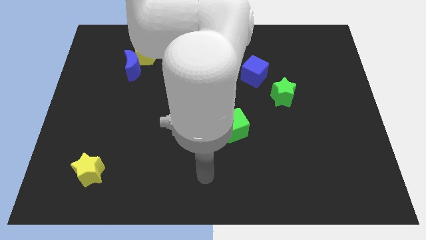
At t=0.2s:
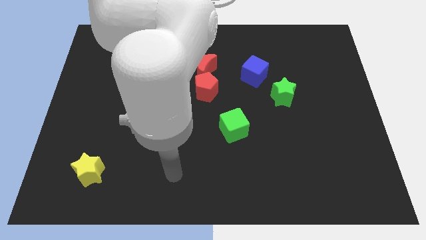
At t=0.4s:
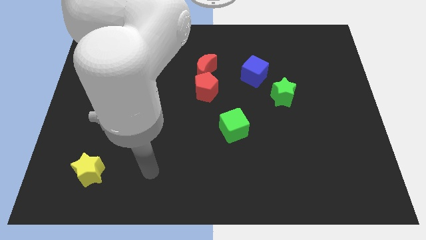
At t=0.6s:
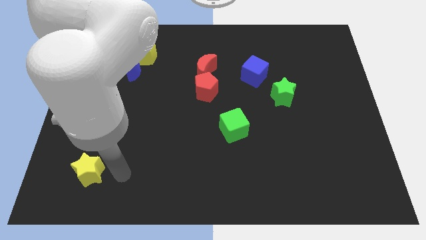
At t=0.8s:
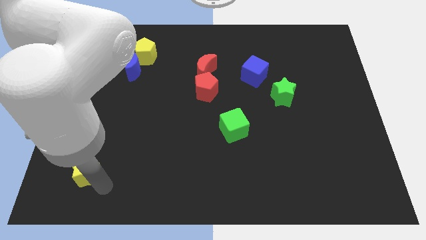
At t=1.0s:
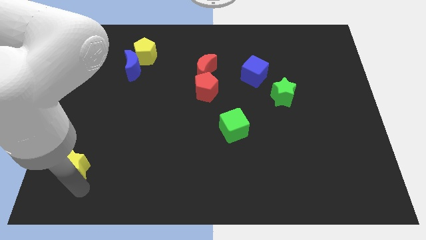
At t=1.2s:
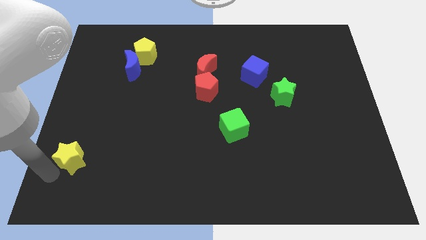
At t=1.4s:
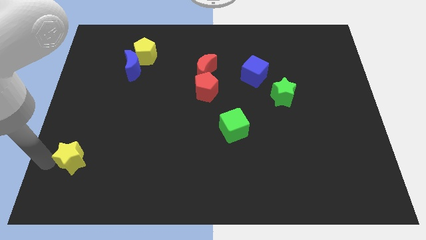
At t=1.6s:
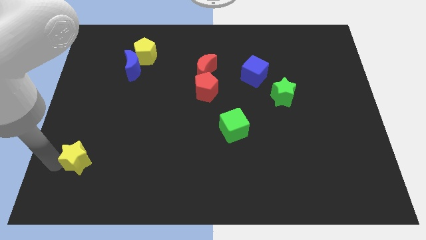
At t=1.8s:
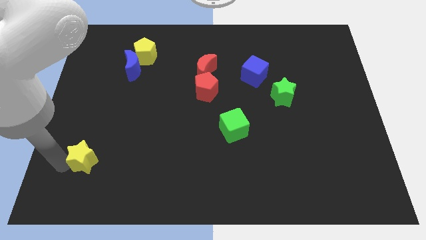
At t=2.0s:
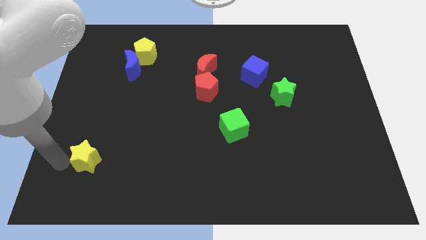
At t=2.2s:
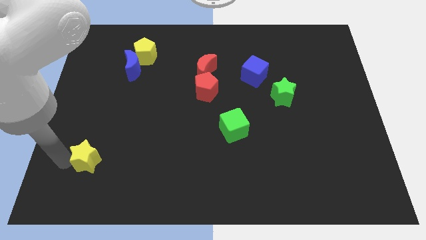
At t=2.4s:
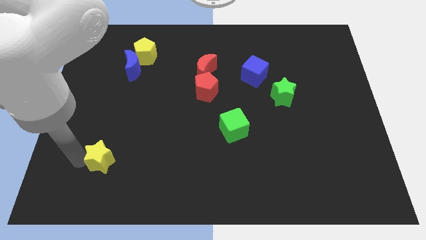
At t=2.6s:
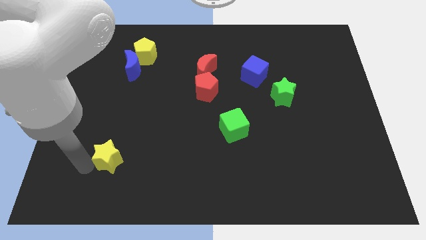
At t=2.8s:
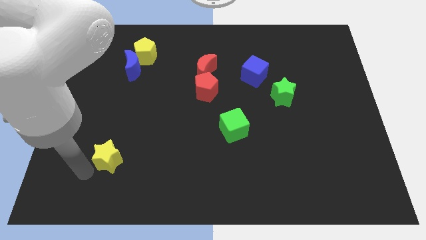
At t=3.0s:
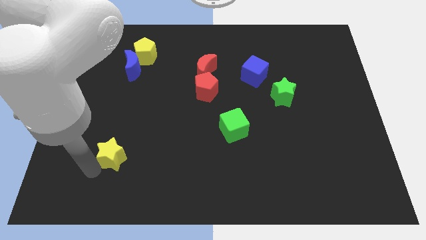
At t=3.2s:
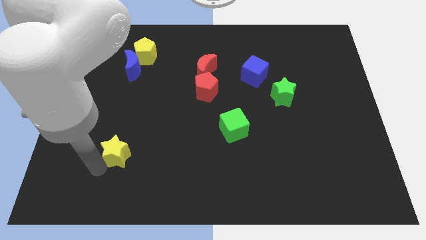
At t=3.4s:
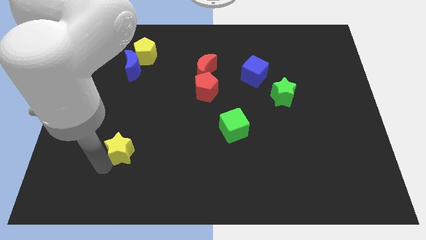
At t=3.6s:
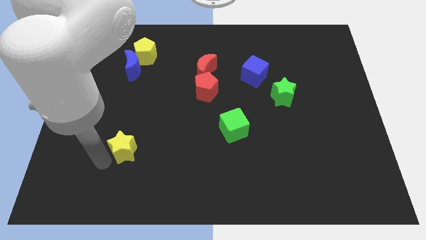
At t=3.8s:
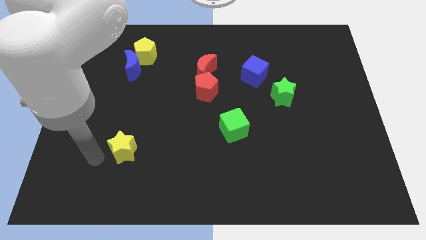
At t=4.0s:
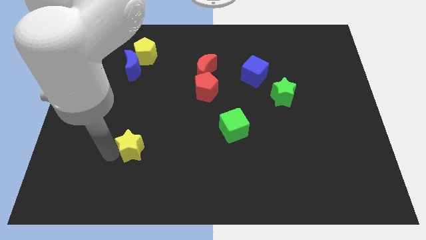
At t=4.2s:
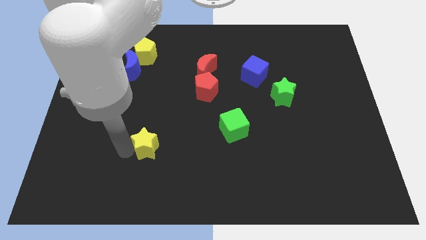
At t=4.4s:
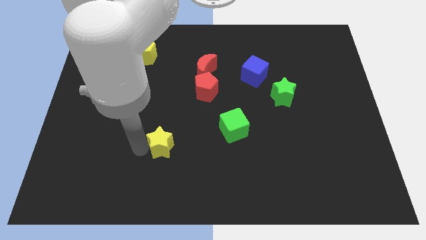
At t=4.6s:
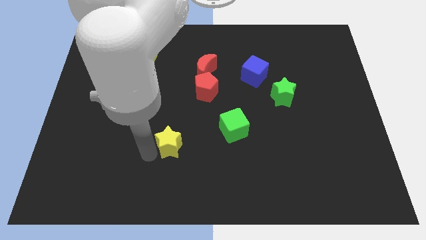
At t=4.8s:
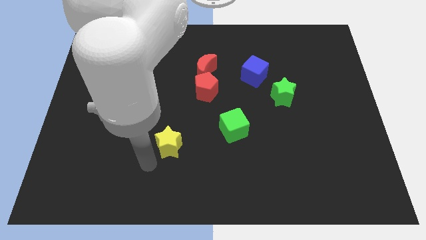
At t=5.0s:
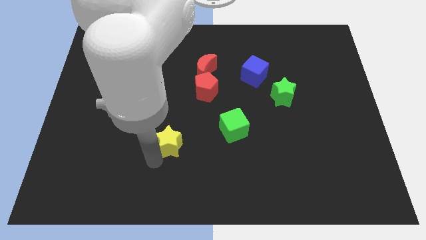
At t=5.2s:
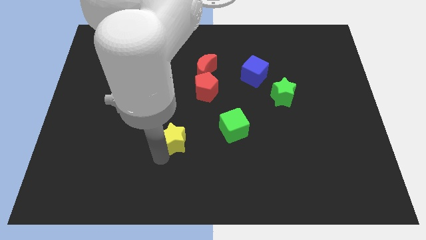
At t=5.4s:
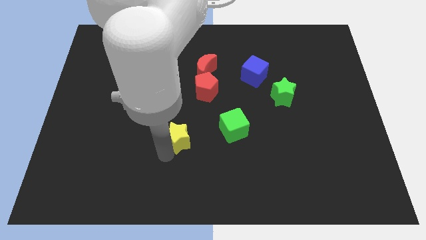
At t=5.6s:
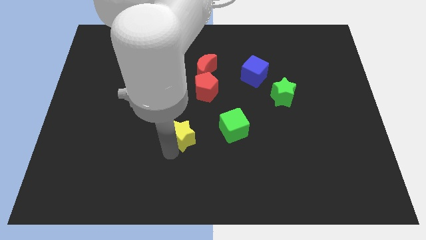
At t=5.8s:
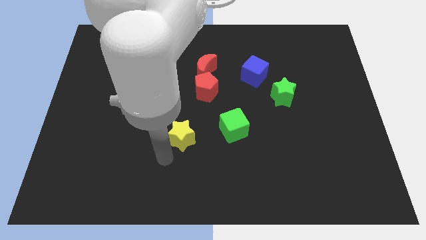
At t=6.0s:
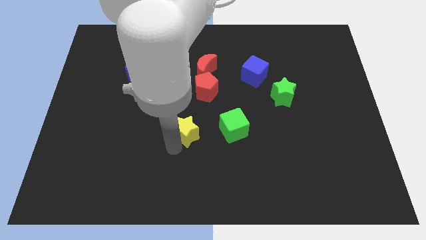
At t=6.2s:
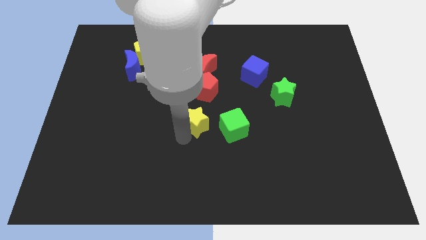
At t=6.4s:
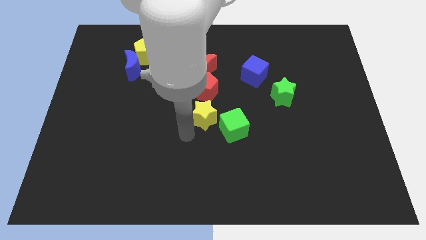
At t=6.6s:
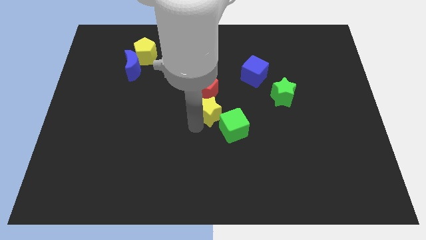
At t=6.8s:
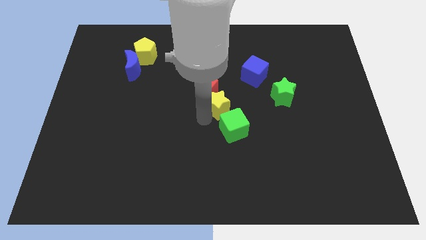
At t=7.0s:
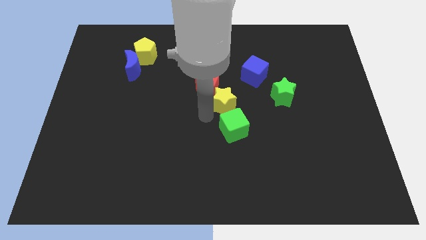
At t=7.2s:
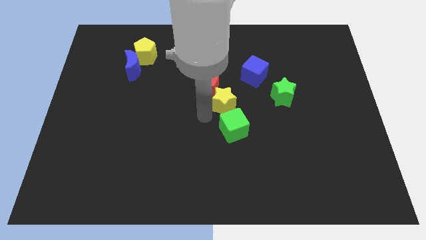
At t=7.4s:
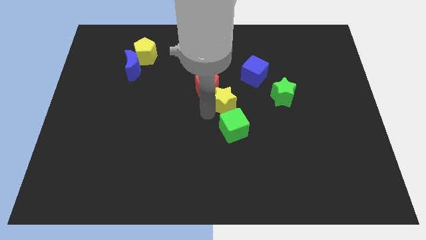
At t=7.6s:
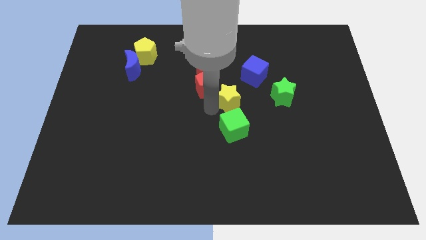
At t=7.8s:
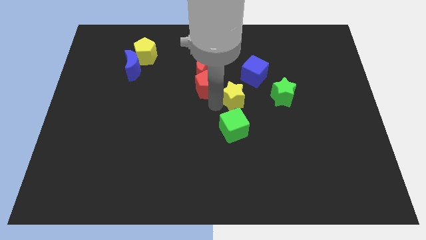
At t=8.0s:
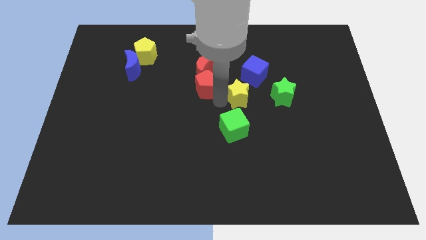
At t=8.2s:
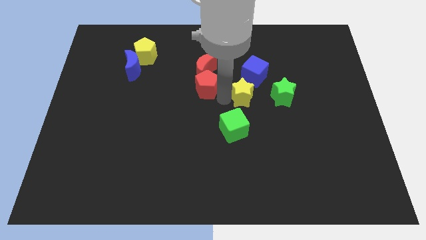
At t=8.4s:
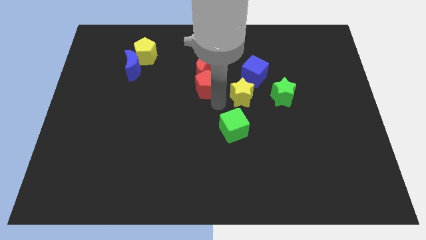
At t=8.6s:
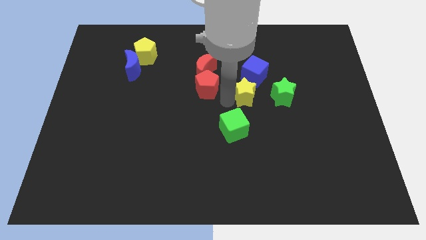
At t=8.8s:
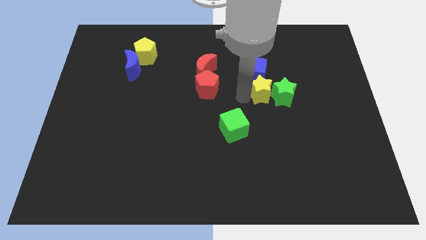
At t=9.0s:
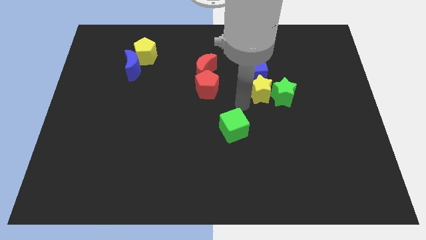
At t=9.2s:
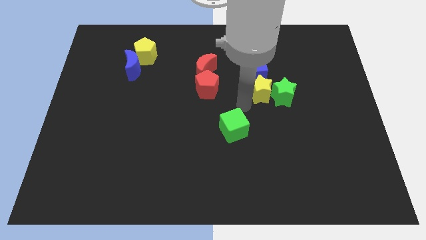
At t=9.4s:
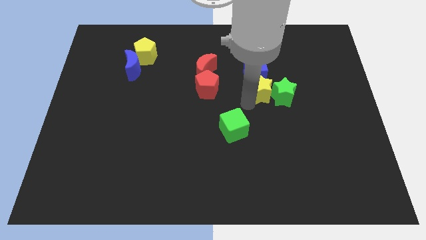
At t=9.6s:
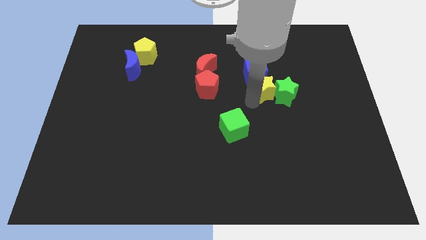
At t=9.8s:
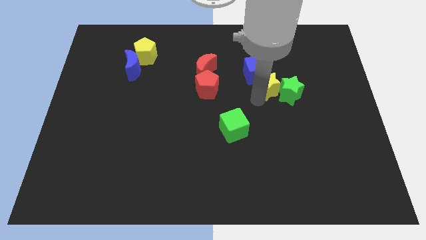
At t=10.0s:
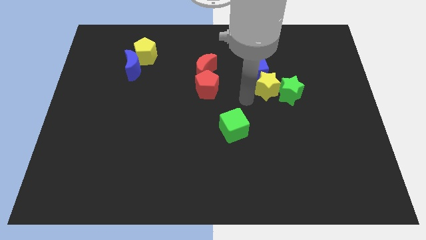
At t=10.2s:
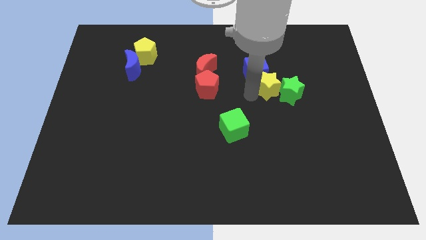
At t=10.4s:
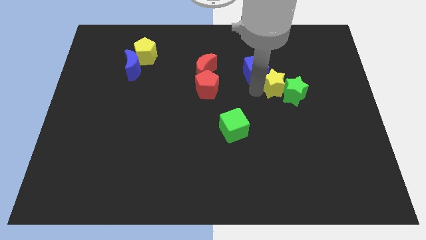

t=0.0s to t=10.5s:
push the yellow star to the right side of the blue cube

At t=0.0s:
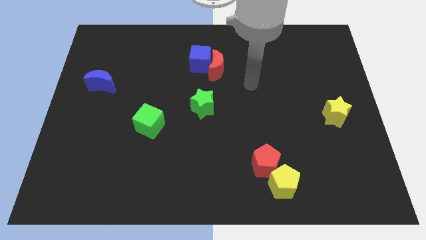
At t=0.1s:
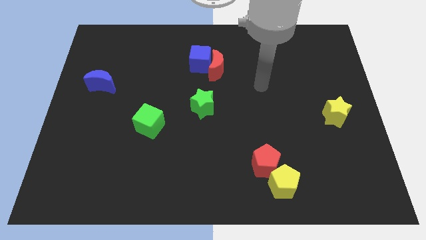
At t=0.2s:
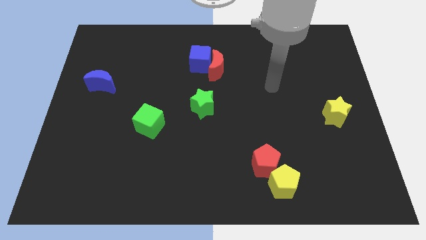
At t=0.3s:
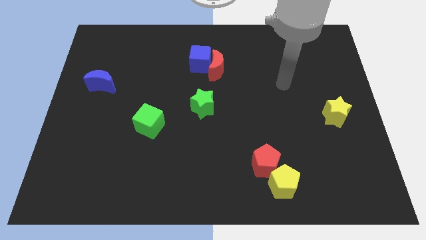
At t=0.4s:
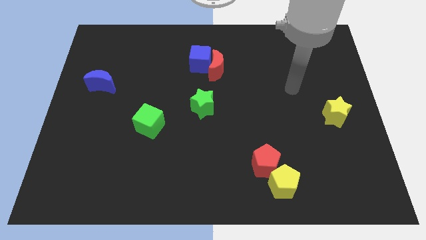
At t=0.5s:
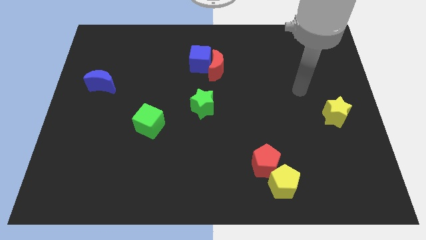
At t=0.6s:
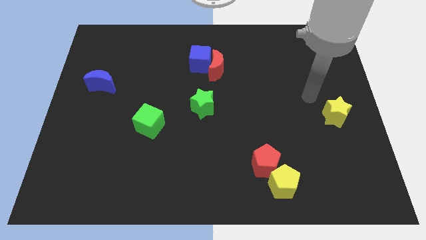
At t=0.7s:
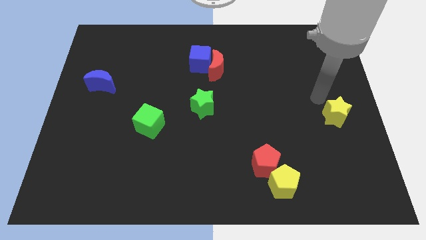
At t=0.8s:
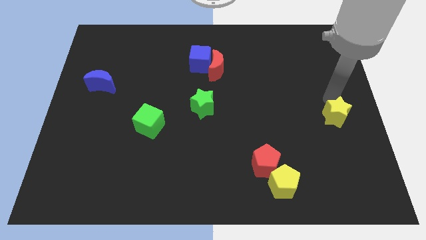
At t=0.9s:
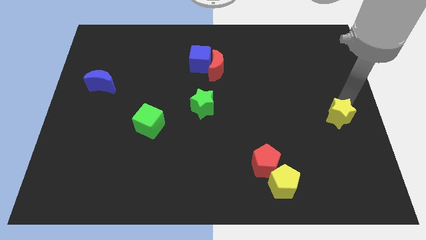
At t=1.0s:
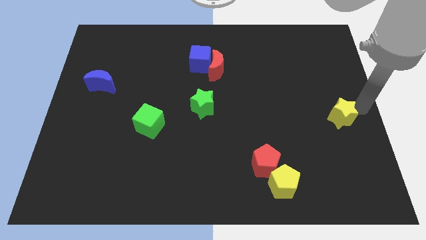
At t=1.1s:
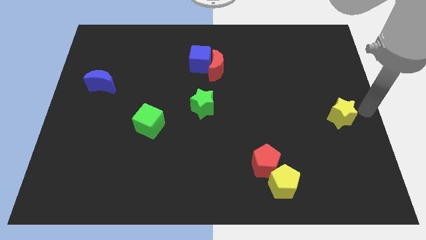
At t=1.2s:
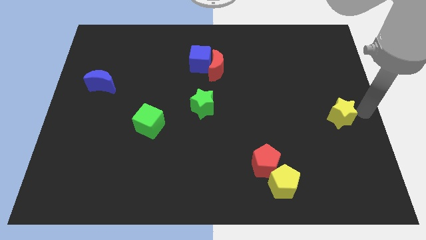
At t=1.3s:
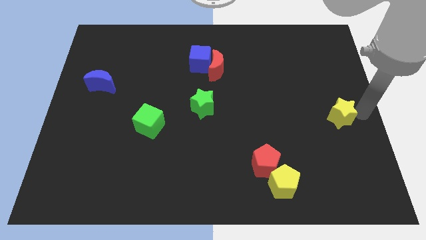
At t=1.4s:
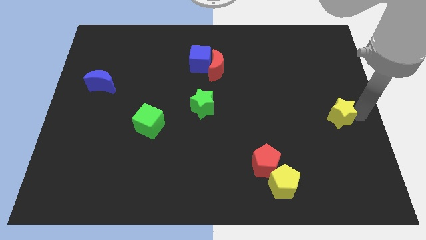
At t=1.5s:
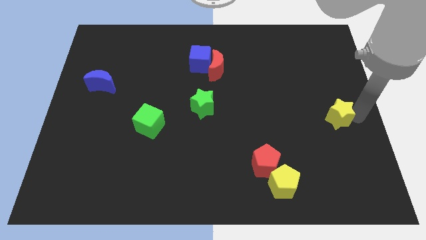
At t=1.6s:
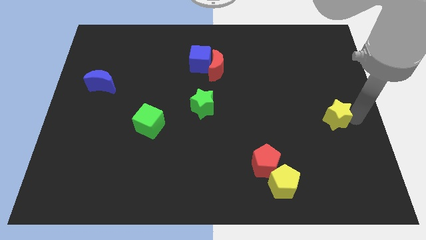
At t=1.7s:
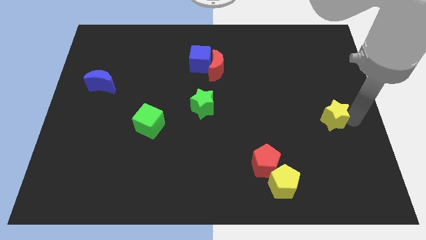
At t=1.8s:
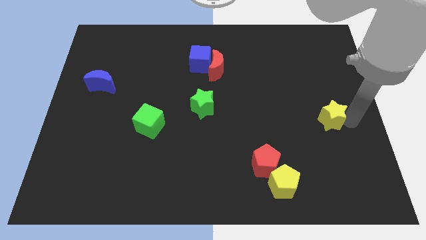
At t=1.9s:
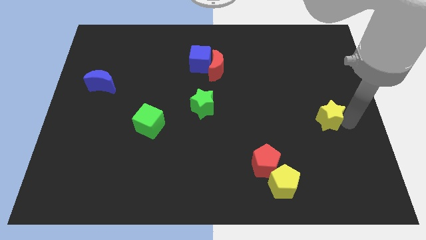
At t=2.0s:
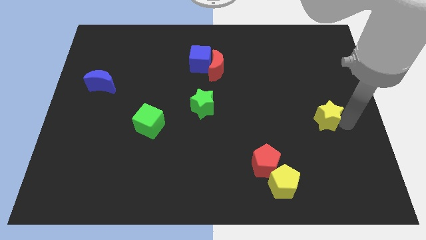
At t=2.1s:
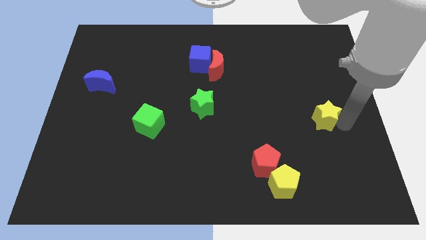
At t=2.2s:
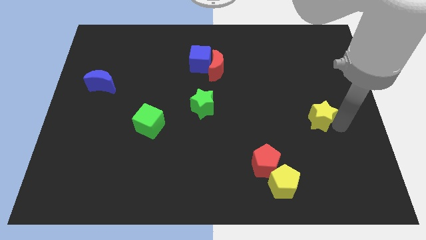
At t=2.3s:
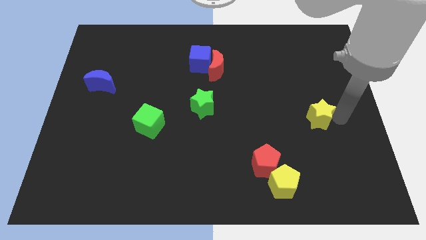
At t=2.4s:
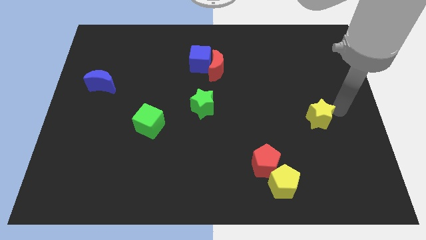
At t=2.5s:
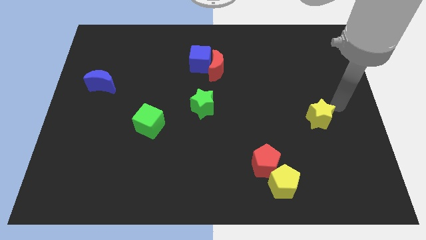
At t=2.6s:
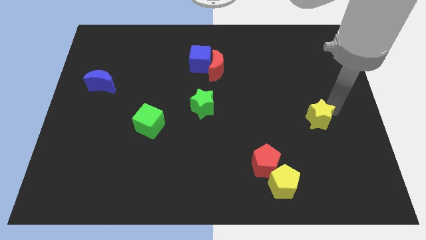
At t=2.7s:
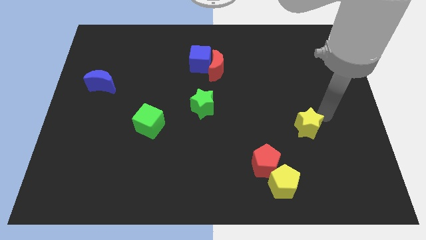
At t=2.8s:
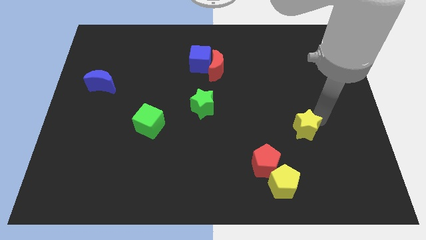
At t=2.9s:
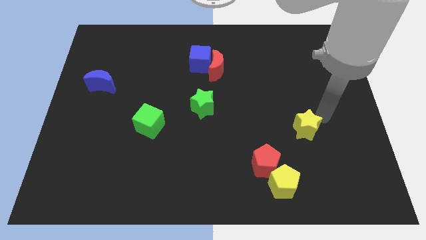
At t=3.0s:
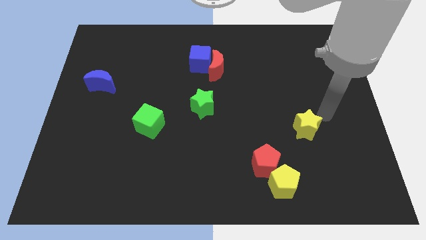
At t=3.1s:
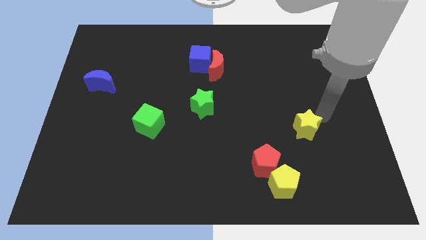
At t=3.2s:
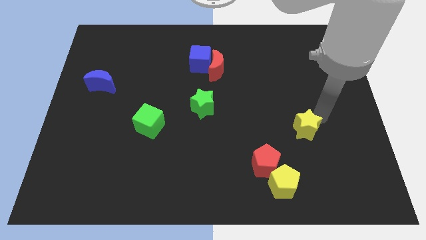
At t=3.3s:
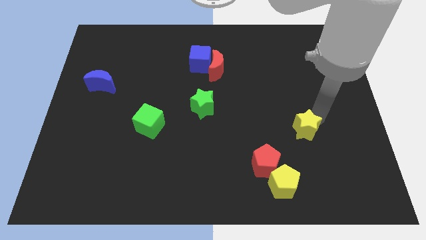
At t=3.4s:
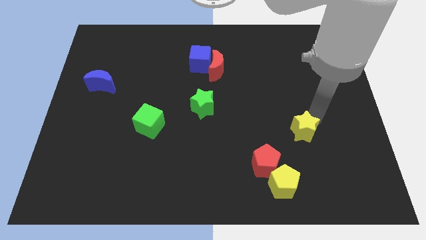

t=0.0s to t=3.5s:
slide the yellow star to the top right side of the red pentagon
